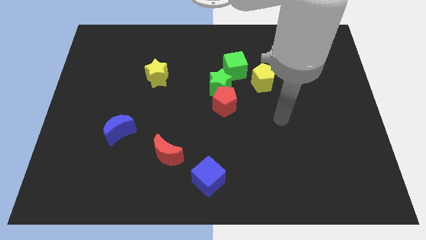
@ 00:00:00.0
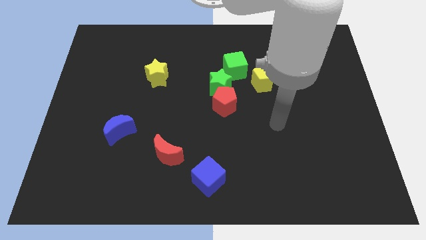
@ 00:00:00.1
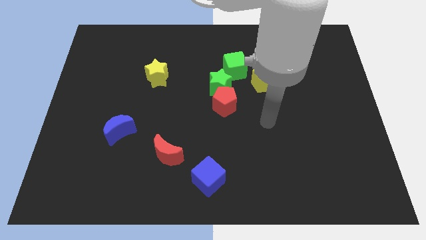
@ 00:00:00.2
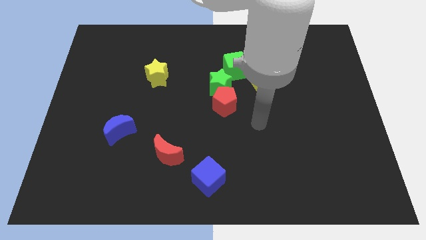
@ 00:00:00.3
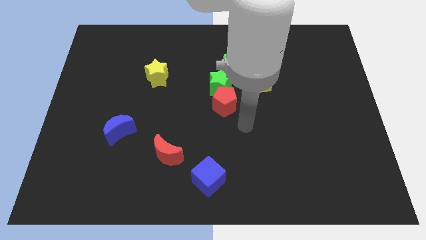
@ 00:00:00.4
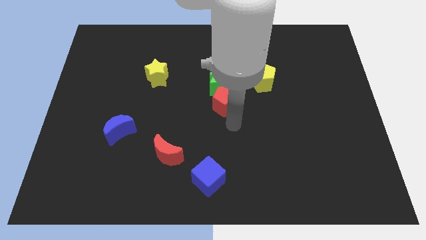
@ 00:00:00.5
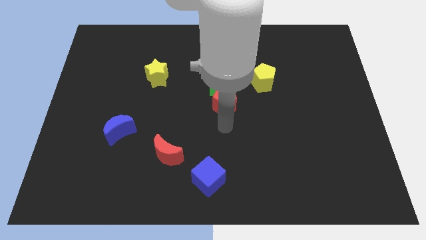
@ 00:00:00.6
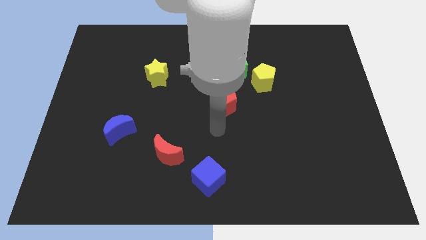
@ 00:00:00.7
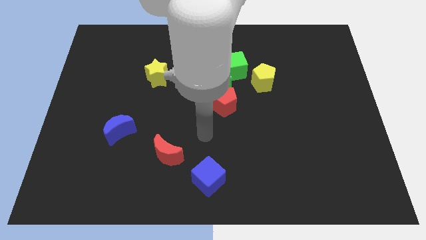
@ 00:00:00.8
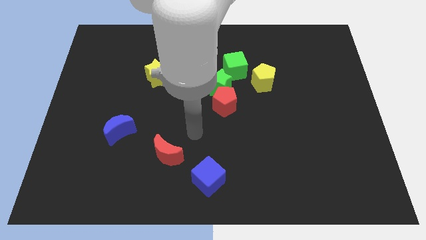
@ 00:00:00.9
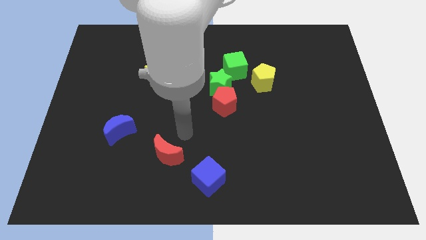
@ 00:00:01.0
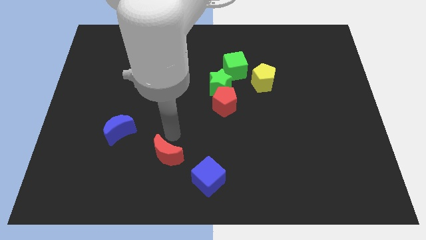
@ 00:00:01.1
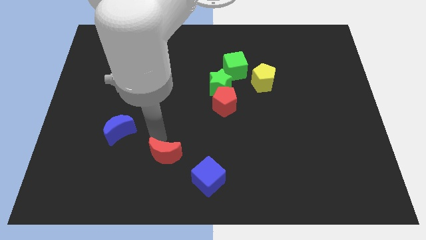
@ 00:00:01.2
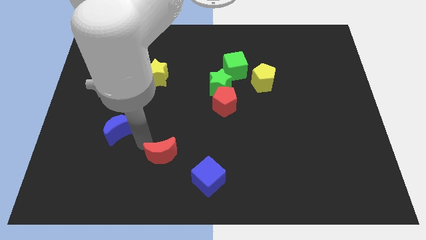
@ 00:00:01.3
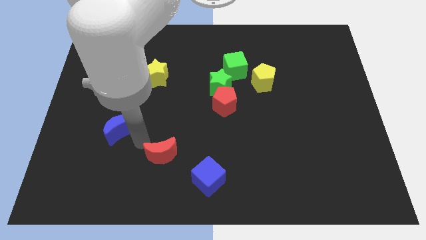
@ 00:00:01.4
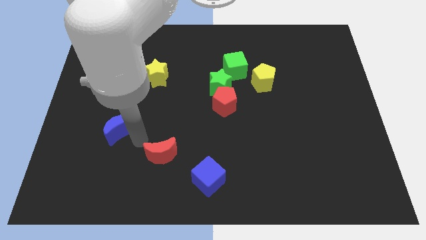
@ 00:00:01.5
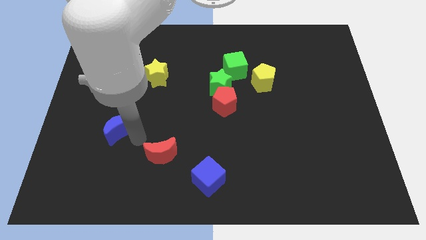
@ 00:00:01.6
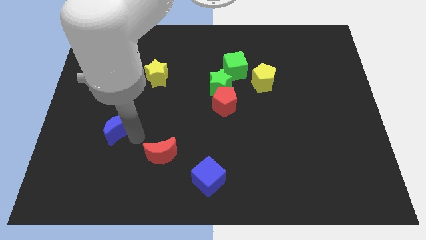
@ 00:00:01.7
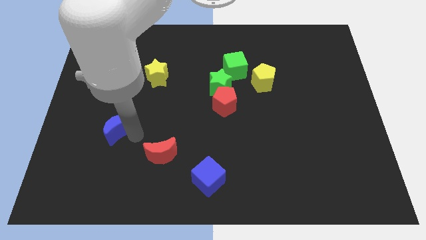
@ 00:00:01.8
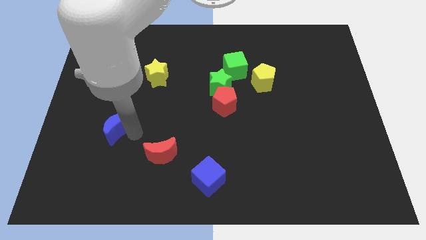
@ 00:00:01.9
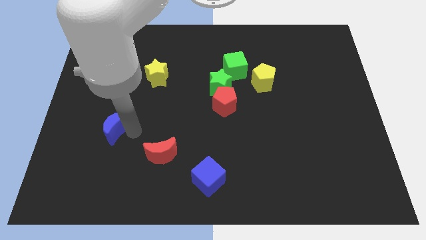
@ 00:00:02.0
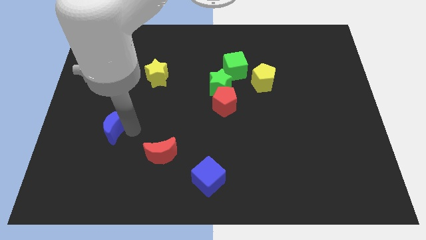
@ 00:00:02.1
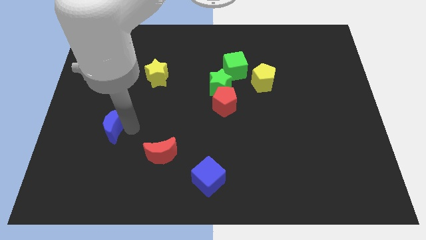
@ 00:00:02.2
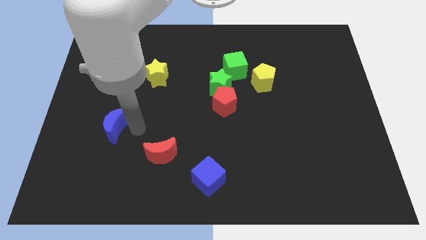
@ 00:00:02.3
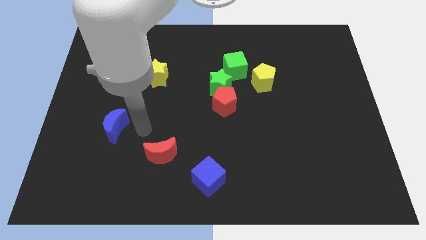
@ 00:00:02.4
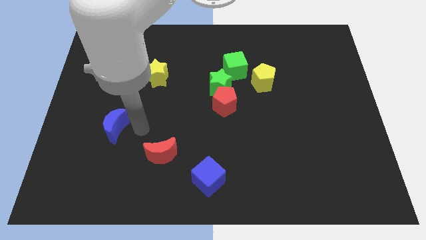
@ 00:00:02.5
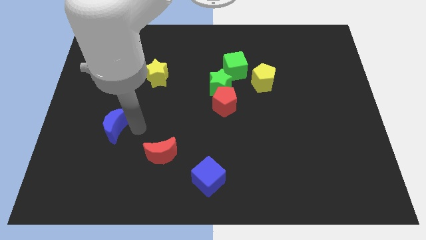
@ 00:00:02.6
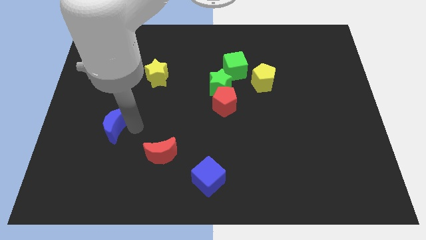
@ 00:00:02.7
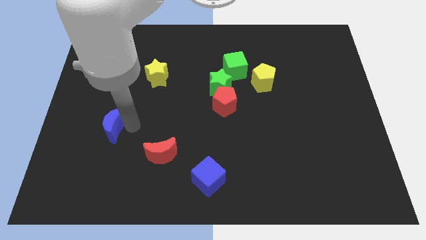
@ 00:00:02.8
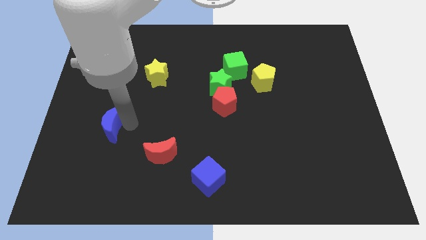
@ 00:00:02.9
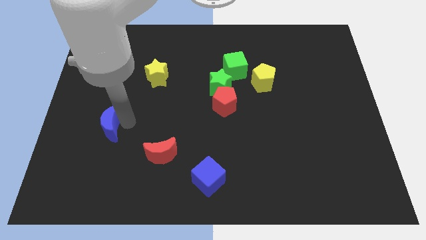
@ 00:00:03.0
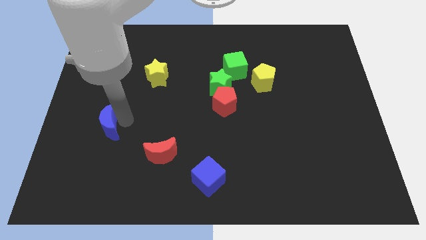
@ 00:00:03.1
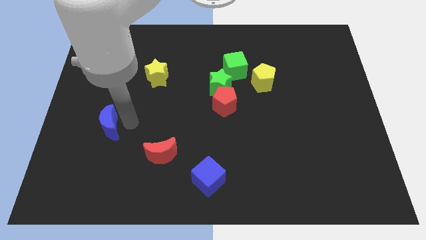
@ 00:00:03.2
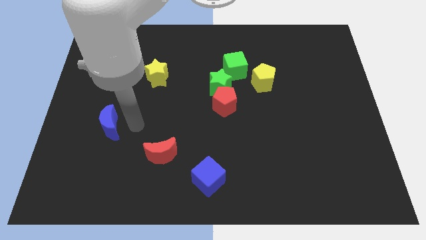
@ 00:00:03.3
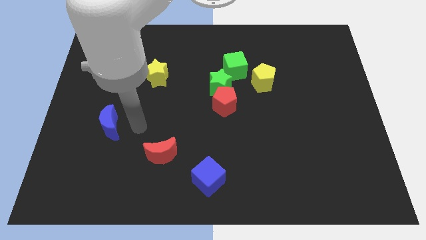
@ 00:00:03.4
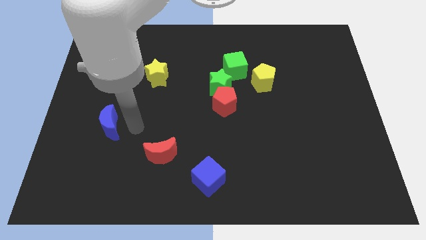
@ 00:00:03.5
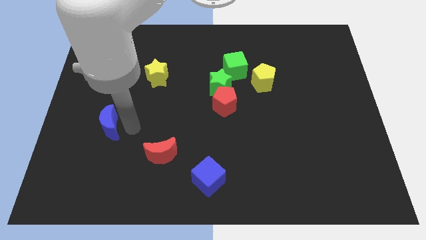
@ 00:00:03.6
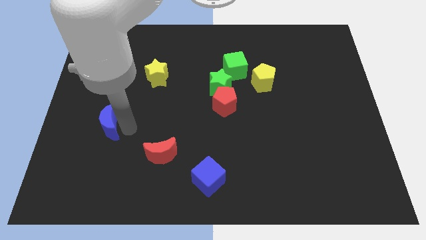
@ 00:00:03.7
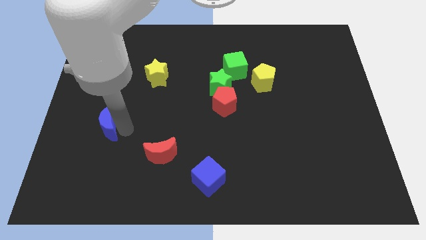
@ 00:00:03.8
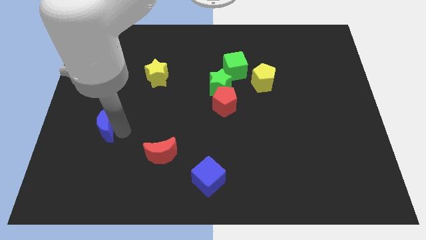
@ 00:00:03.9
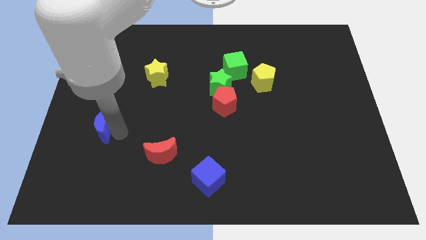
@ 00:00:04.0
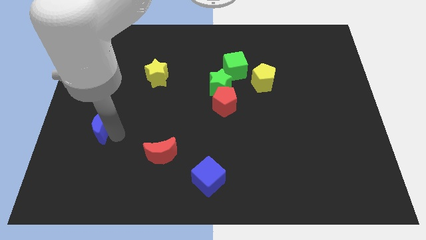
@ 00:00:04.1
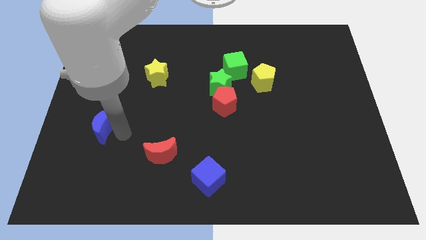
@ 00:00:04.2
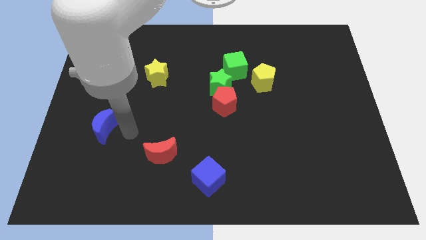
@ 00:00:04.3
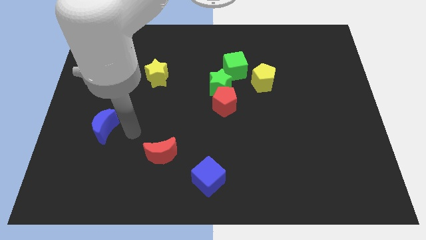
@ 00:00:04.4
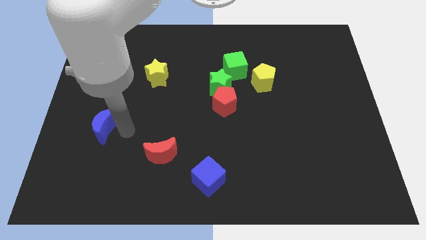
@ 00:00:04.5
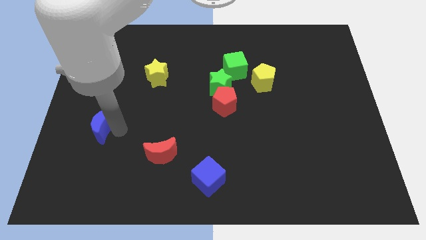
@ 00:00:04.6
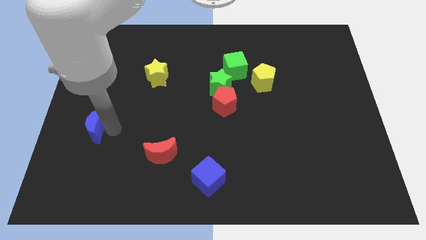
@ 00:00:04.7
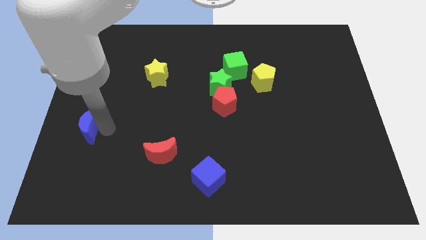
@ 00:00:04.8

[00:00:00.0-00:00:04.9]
push the blue moon to the center left

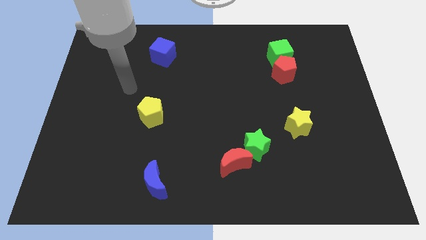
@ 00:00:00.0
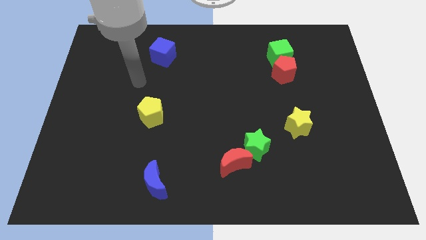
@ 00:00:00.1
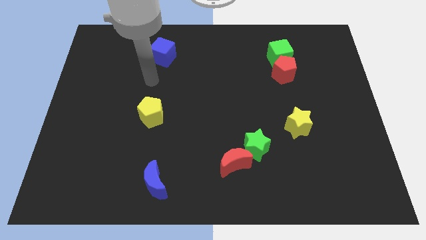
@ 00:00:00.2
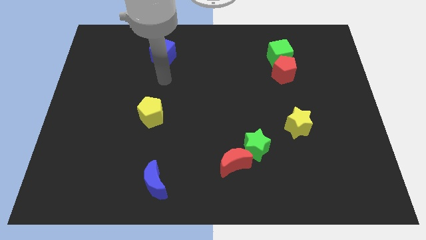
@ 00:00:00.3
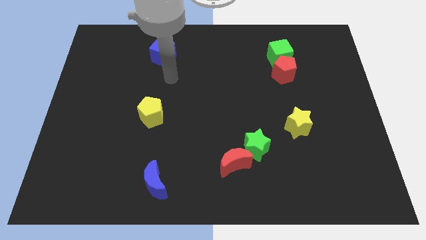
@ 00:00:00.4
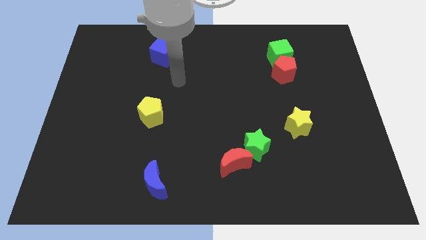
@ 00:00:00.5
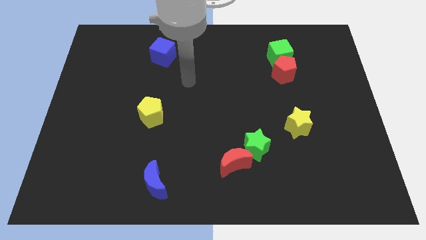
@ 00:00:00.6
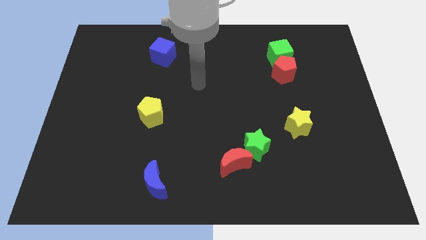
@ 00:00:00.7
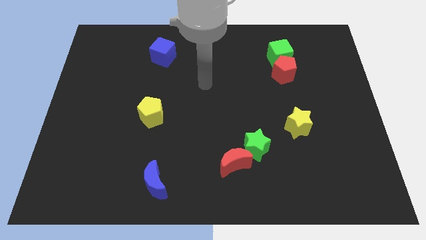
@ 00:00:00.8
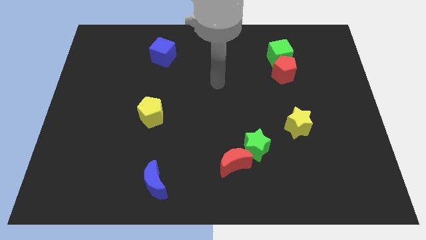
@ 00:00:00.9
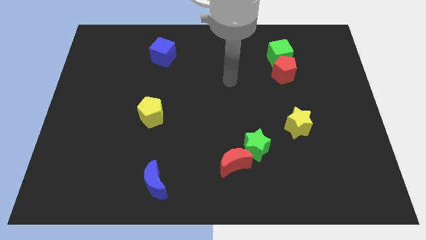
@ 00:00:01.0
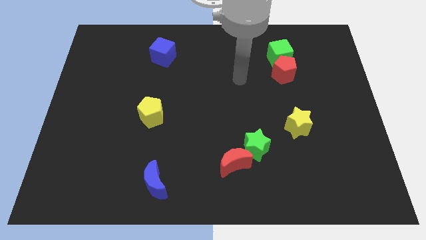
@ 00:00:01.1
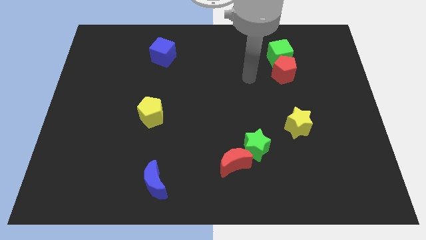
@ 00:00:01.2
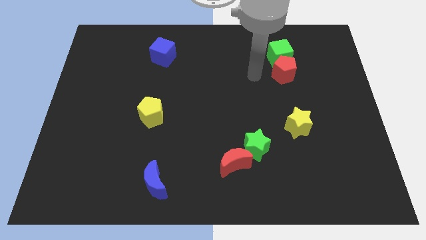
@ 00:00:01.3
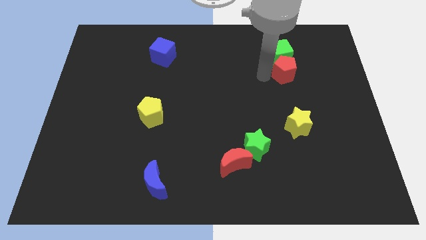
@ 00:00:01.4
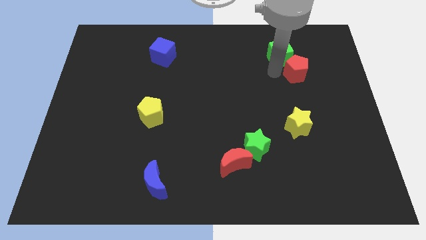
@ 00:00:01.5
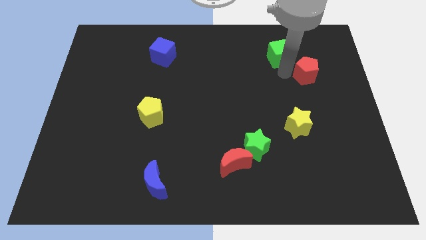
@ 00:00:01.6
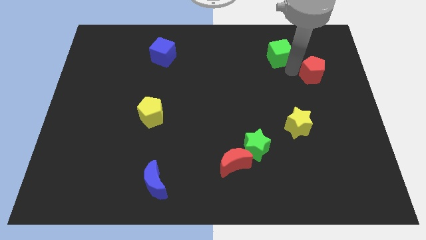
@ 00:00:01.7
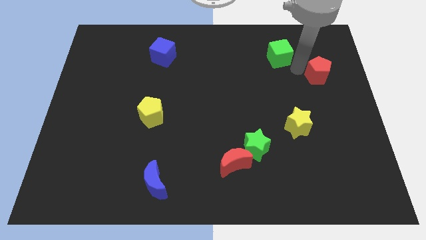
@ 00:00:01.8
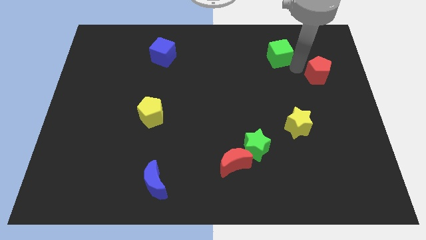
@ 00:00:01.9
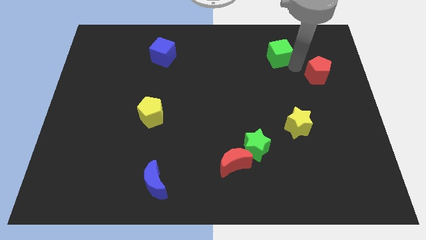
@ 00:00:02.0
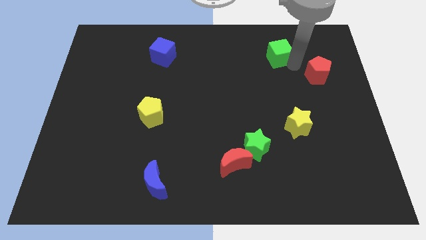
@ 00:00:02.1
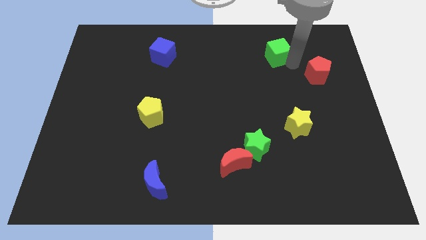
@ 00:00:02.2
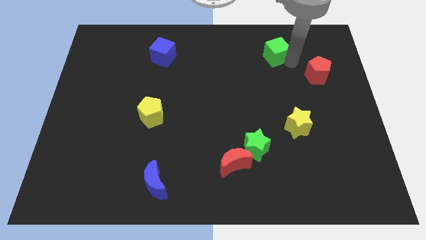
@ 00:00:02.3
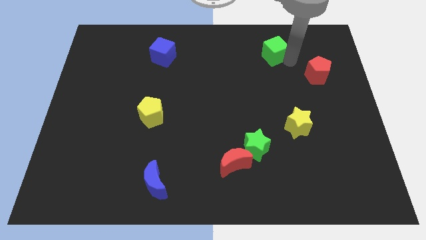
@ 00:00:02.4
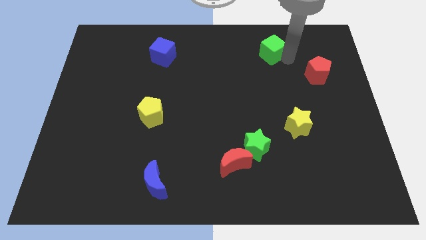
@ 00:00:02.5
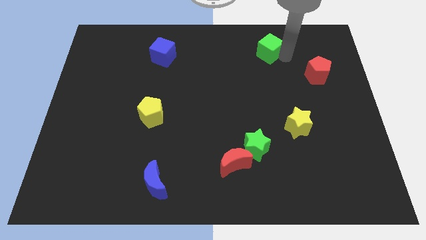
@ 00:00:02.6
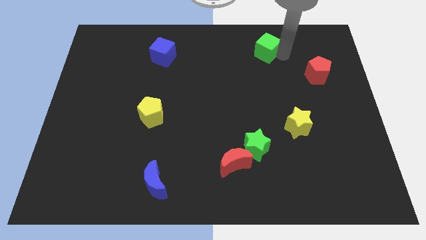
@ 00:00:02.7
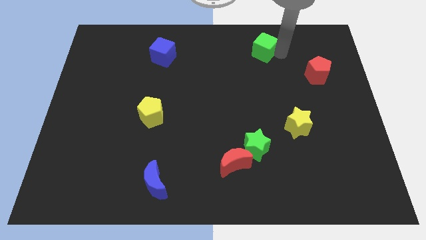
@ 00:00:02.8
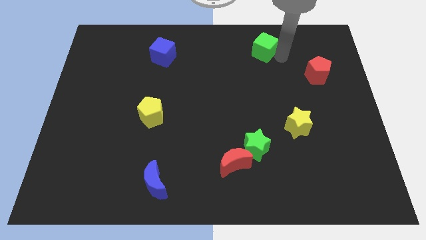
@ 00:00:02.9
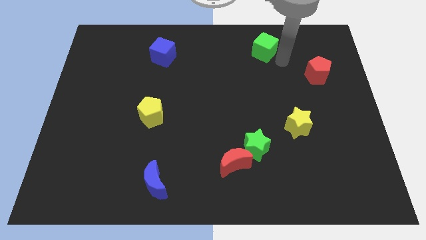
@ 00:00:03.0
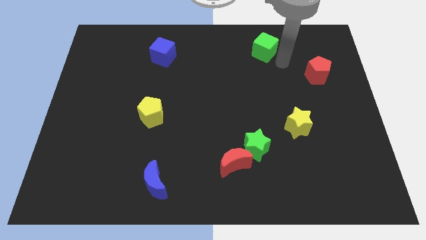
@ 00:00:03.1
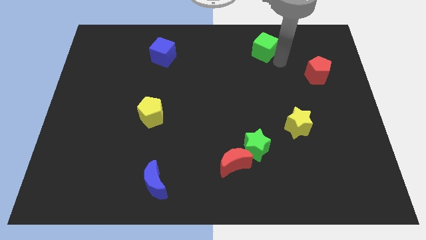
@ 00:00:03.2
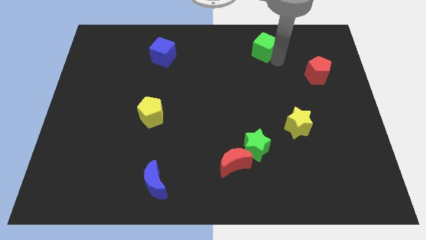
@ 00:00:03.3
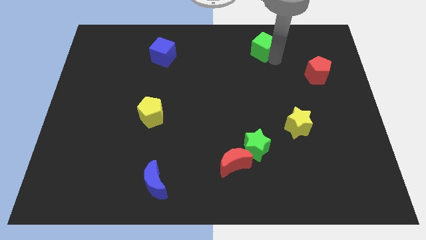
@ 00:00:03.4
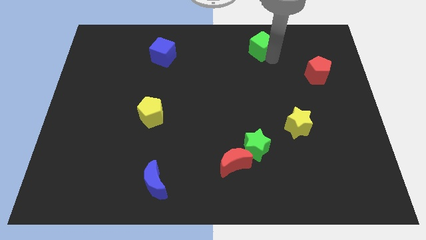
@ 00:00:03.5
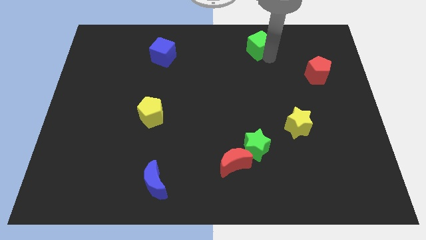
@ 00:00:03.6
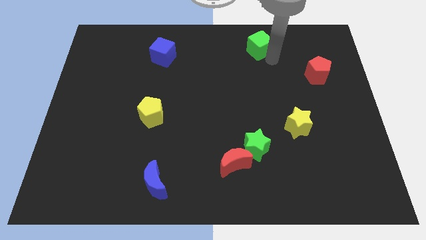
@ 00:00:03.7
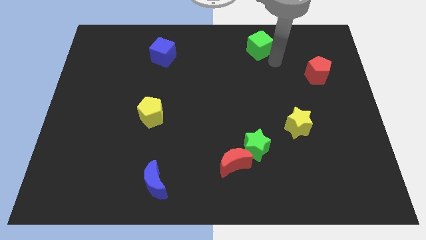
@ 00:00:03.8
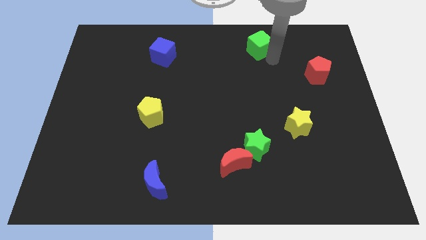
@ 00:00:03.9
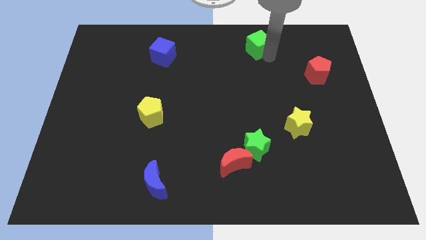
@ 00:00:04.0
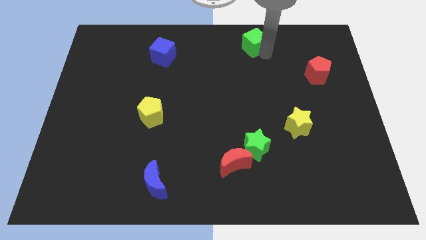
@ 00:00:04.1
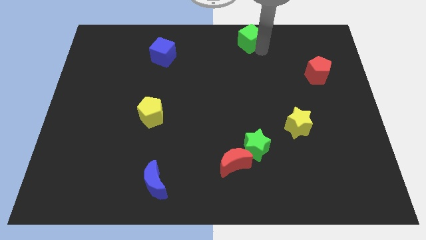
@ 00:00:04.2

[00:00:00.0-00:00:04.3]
slide the green cube to the top side
